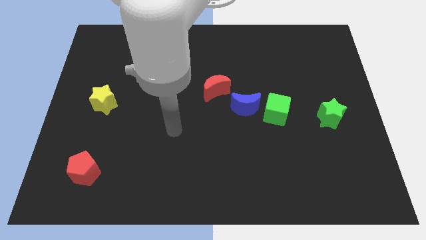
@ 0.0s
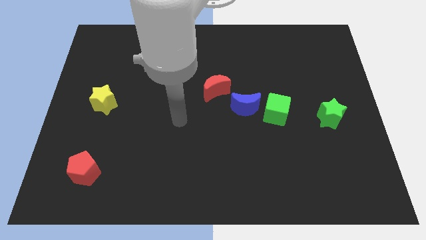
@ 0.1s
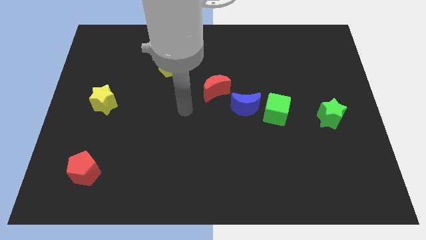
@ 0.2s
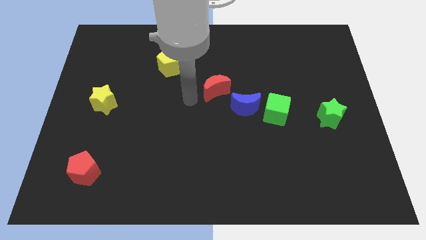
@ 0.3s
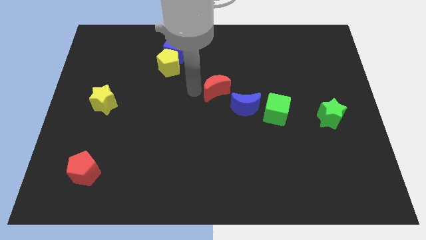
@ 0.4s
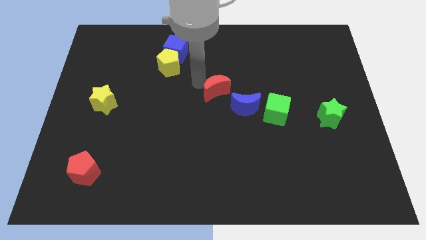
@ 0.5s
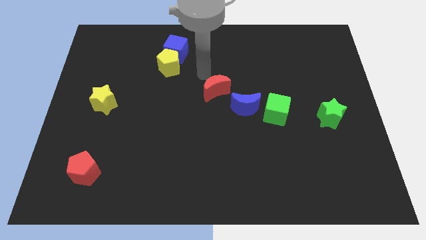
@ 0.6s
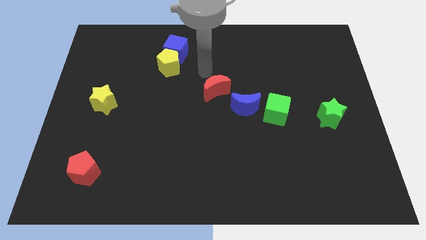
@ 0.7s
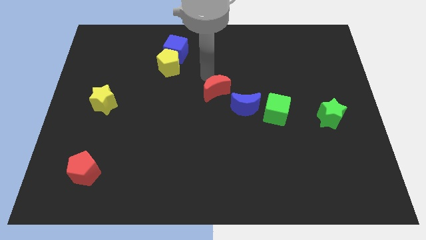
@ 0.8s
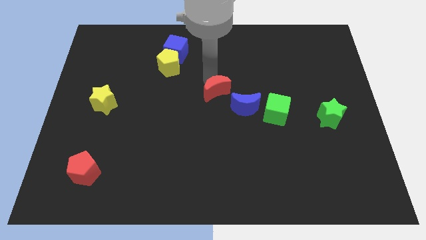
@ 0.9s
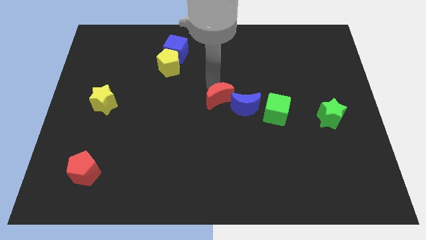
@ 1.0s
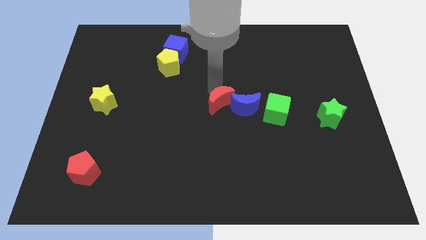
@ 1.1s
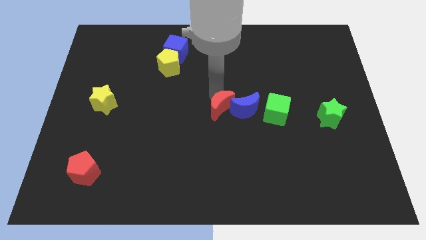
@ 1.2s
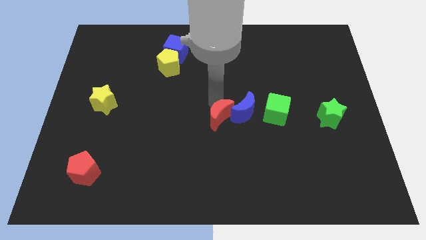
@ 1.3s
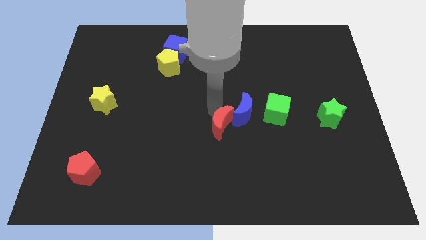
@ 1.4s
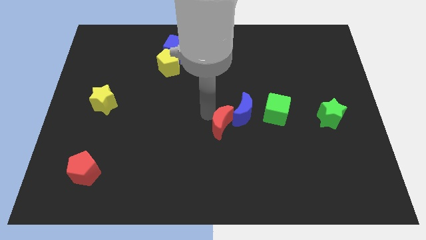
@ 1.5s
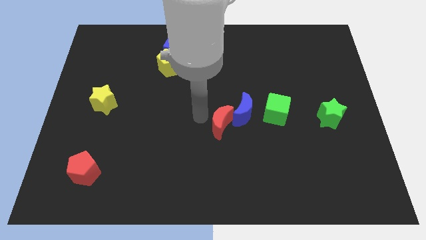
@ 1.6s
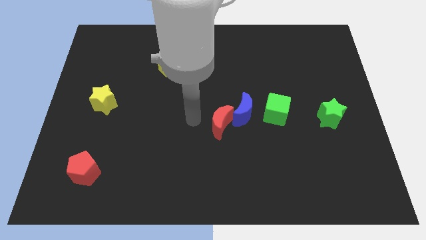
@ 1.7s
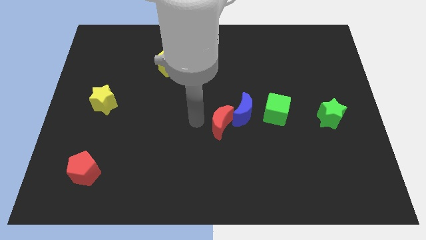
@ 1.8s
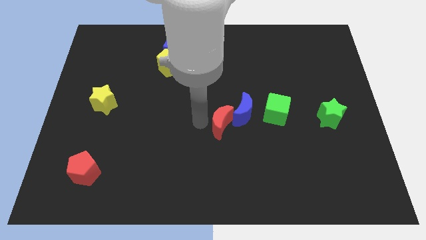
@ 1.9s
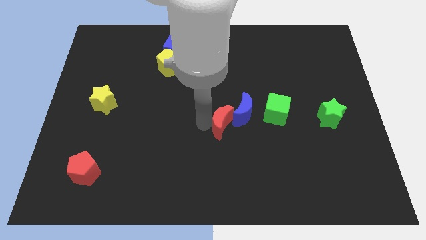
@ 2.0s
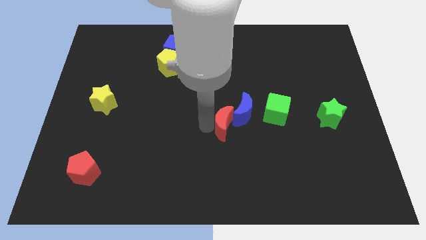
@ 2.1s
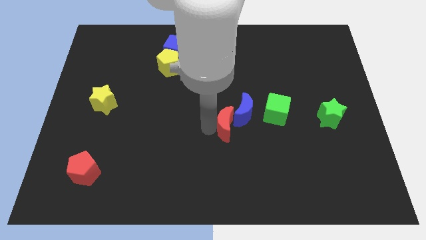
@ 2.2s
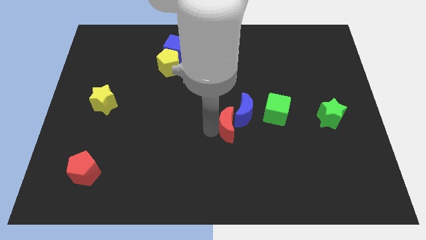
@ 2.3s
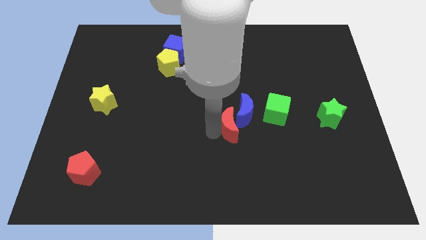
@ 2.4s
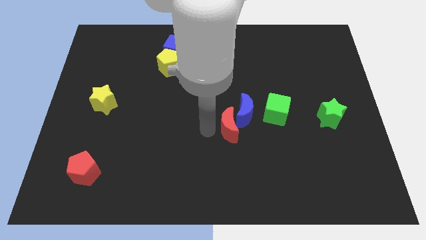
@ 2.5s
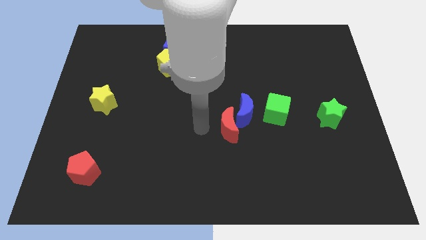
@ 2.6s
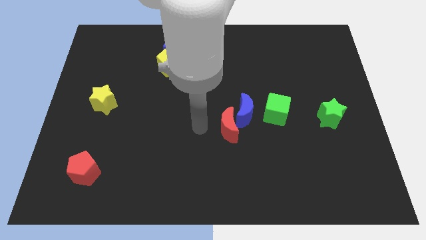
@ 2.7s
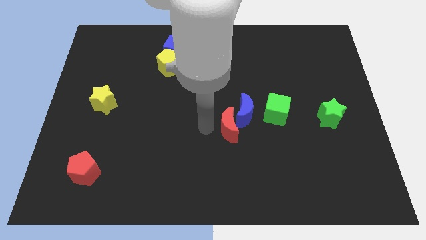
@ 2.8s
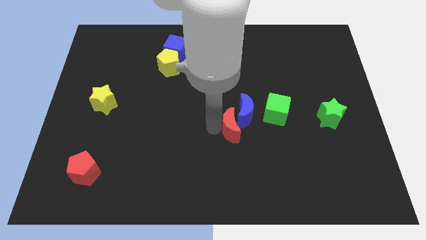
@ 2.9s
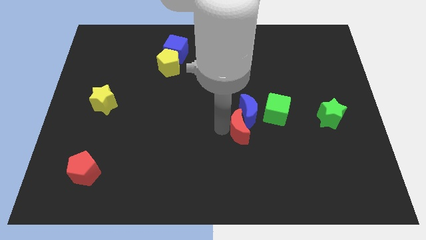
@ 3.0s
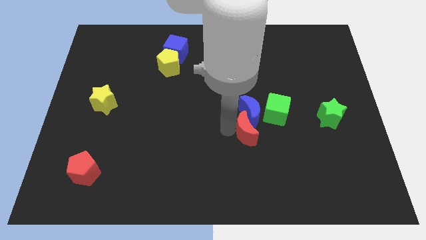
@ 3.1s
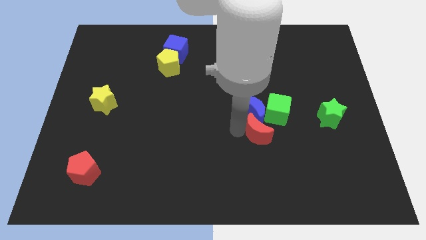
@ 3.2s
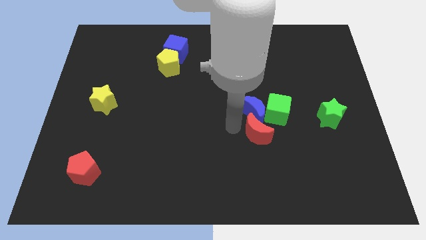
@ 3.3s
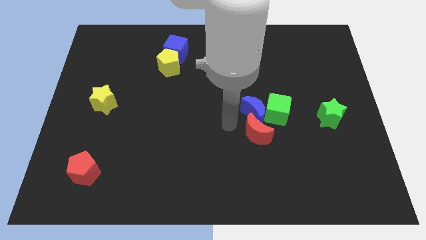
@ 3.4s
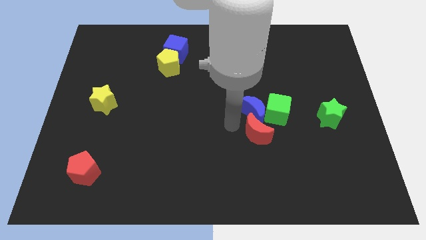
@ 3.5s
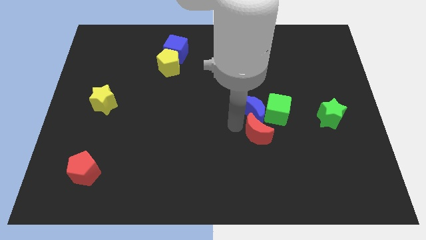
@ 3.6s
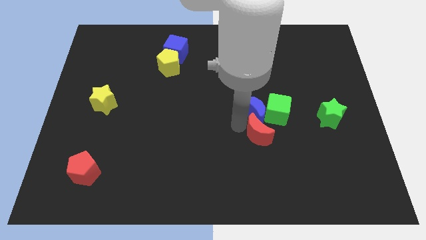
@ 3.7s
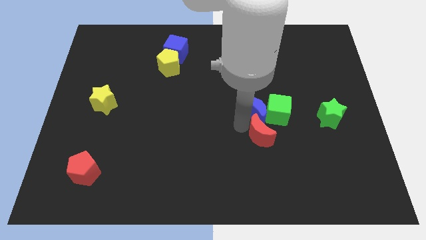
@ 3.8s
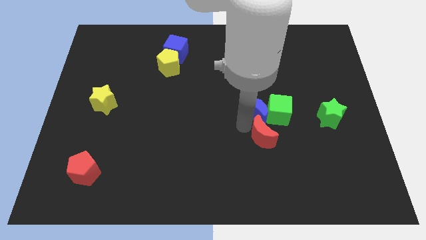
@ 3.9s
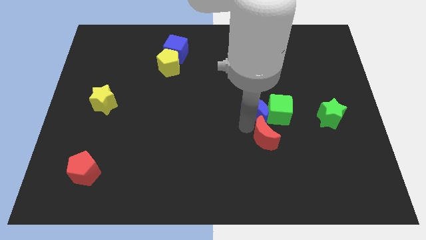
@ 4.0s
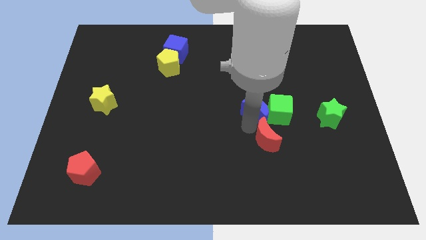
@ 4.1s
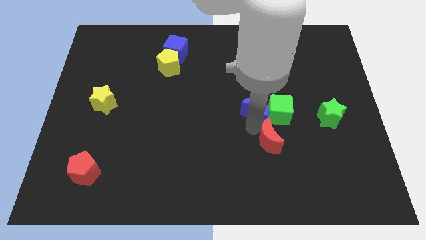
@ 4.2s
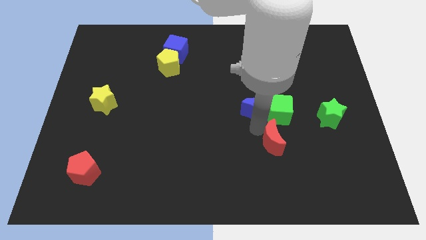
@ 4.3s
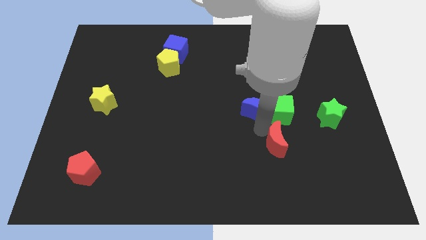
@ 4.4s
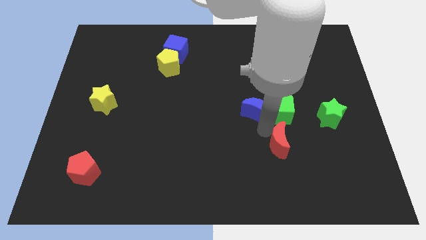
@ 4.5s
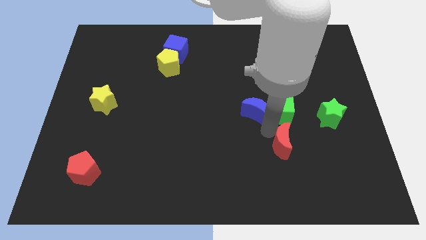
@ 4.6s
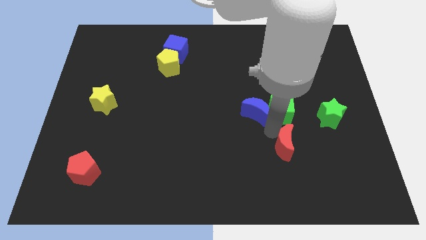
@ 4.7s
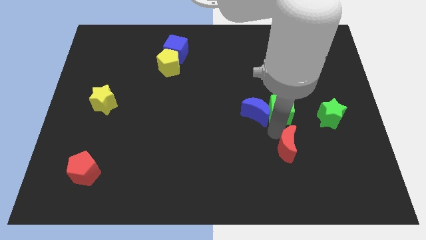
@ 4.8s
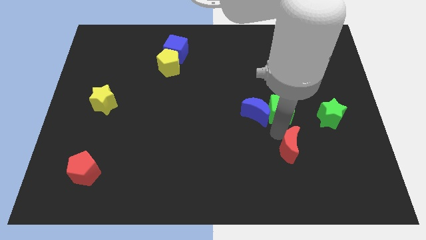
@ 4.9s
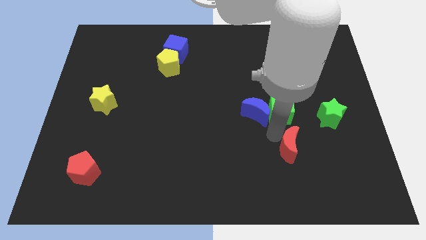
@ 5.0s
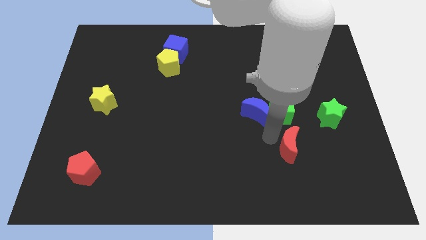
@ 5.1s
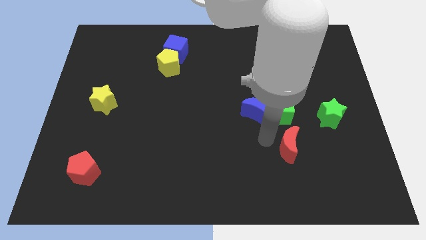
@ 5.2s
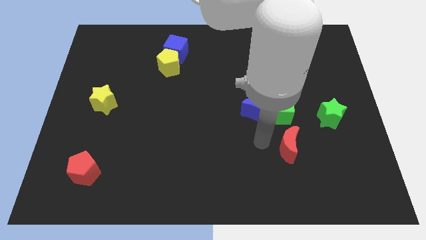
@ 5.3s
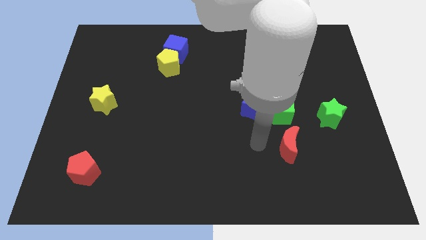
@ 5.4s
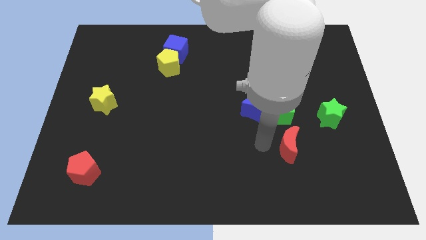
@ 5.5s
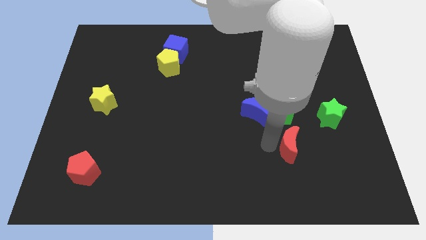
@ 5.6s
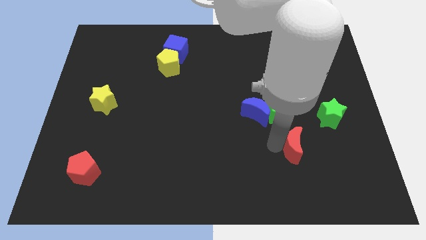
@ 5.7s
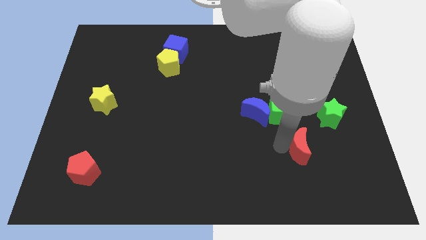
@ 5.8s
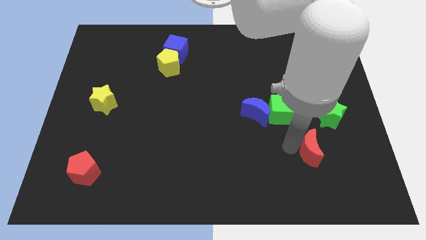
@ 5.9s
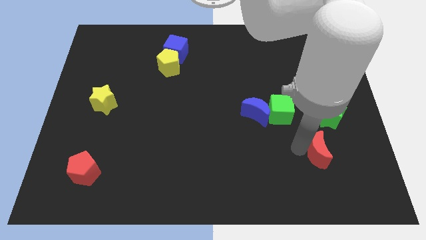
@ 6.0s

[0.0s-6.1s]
slide the red moon to the bottom of the green star
